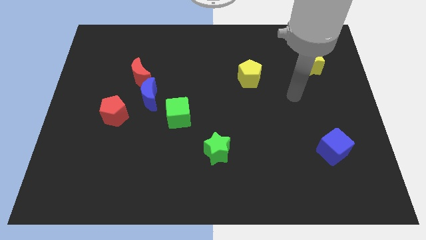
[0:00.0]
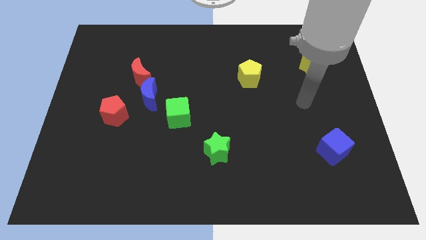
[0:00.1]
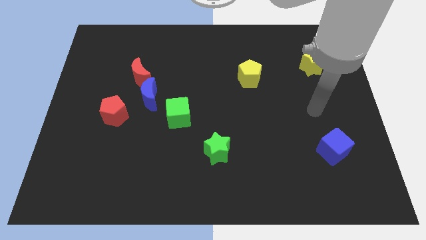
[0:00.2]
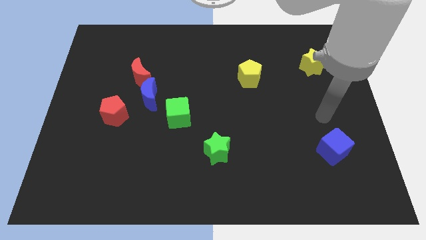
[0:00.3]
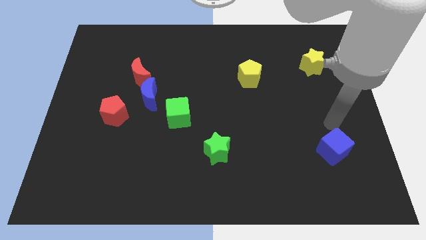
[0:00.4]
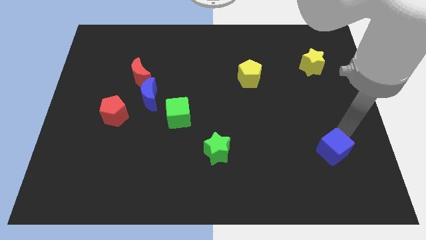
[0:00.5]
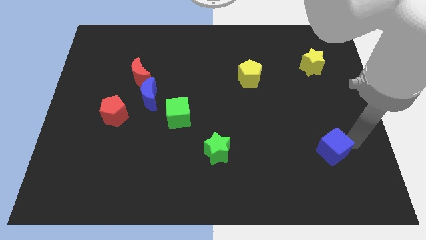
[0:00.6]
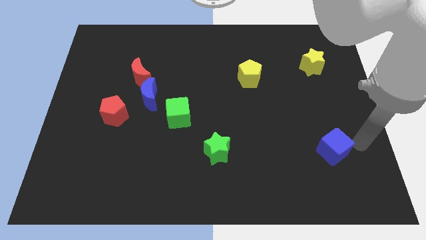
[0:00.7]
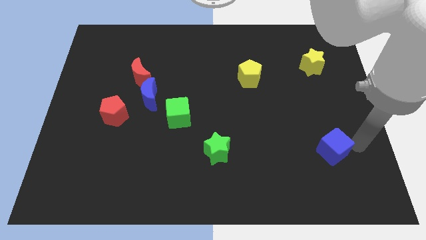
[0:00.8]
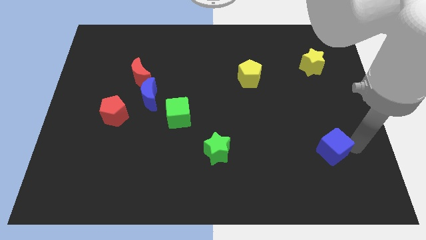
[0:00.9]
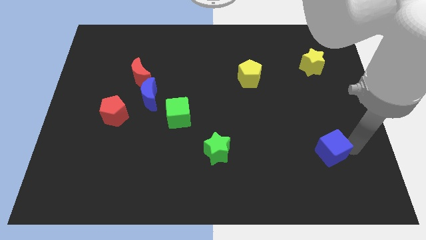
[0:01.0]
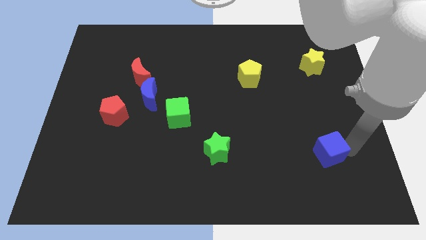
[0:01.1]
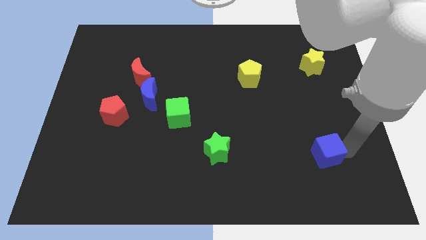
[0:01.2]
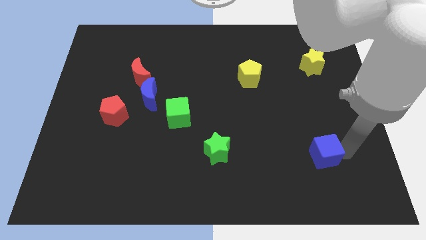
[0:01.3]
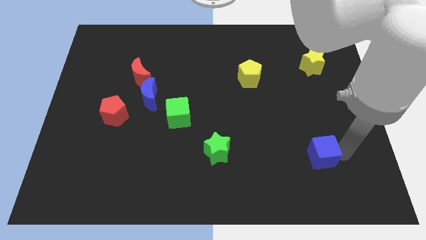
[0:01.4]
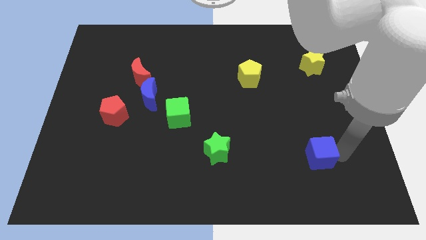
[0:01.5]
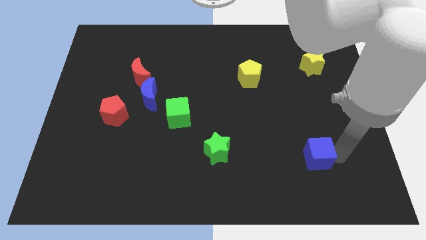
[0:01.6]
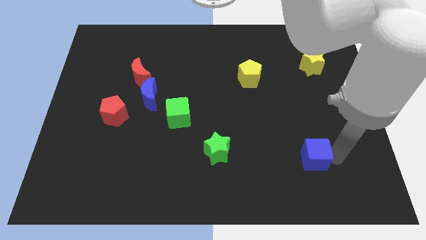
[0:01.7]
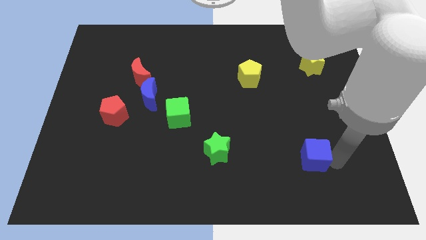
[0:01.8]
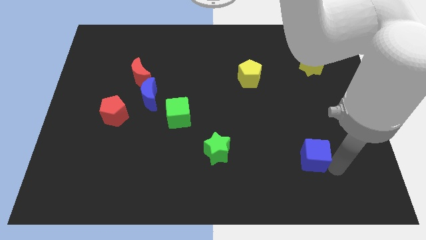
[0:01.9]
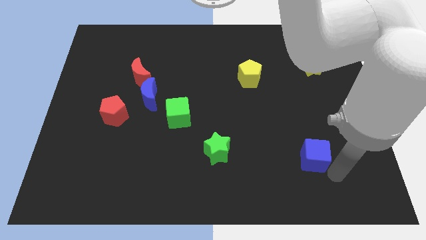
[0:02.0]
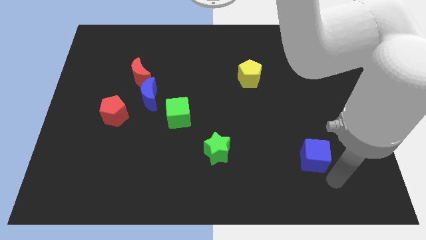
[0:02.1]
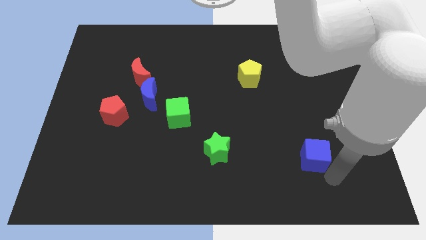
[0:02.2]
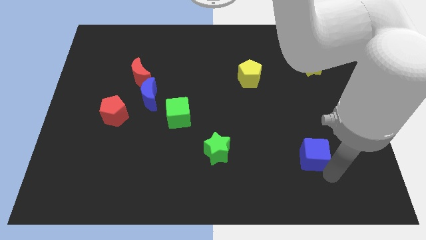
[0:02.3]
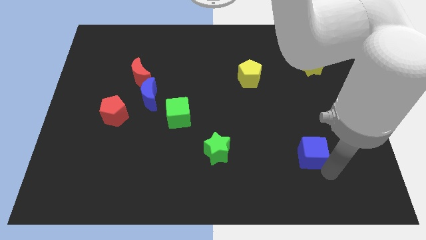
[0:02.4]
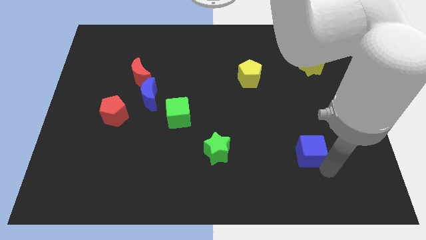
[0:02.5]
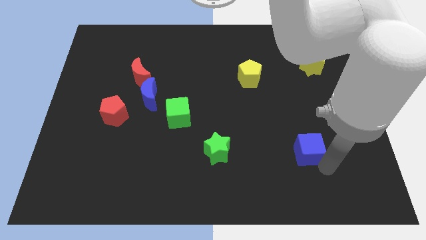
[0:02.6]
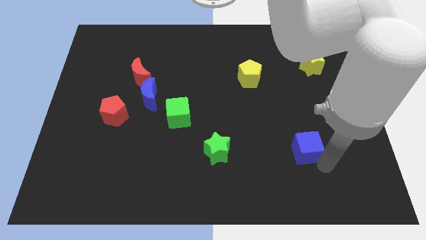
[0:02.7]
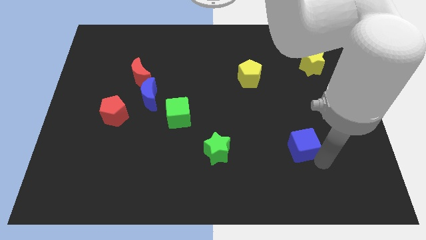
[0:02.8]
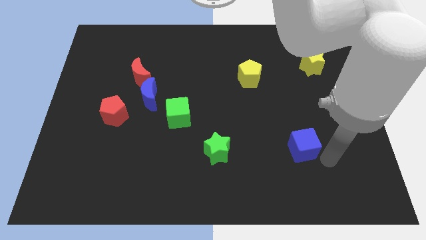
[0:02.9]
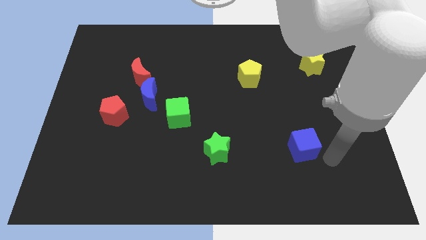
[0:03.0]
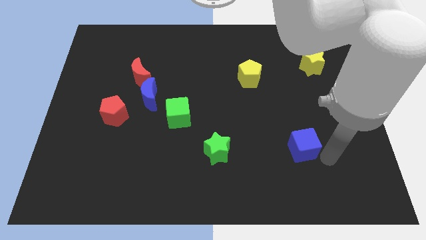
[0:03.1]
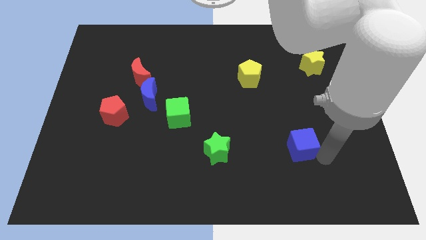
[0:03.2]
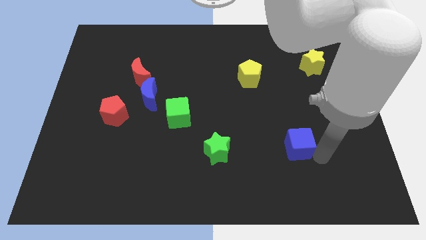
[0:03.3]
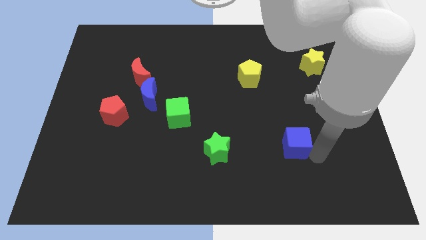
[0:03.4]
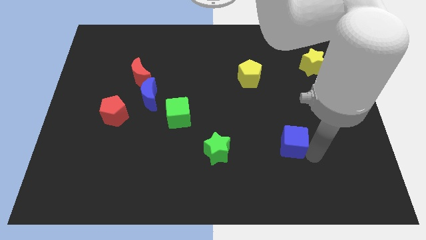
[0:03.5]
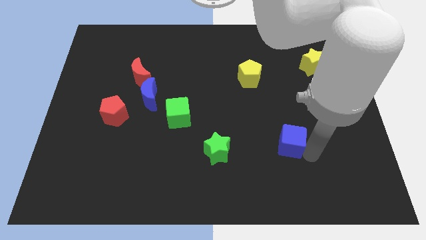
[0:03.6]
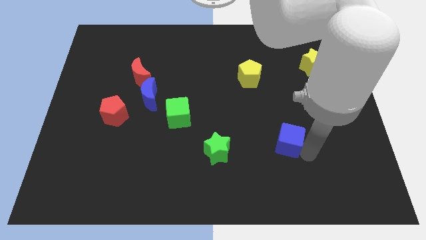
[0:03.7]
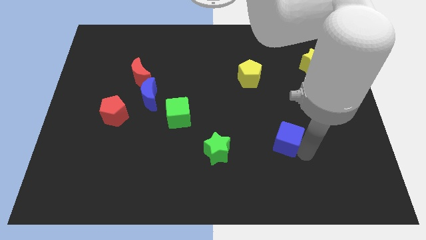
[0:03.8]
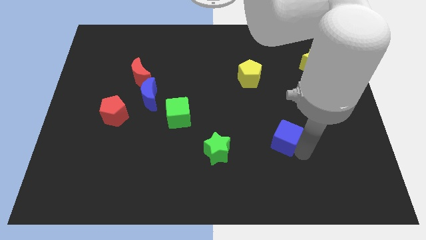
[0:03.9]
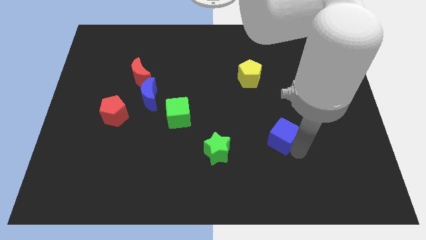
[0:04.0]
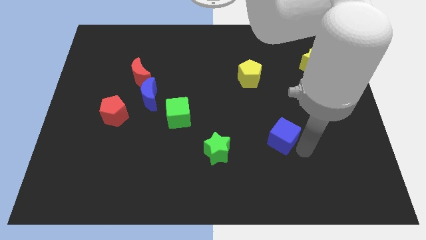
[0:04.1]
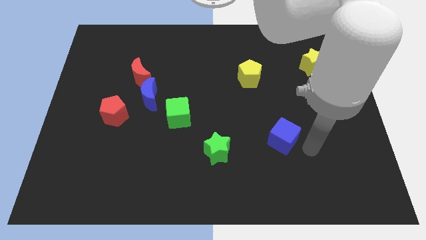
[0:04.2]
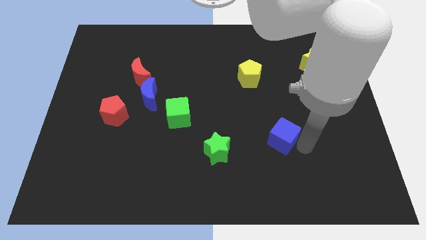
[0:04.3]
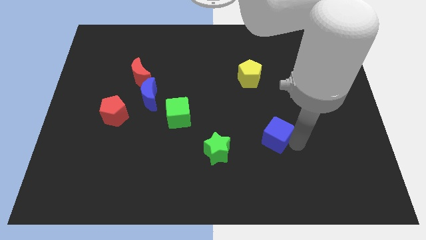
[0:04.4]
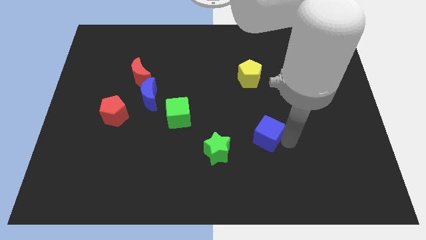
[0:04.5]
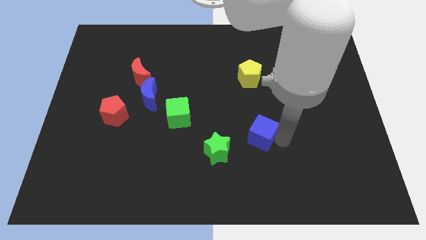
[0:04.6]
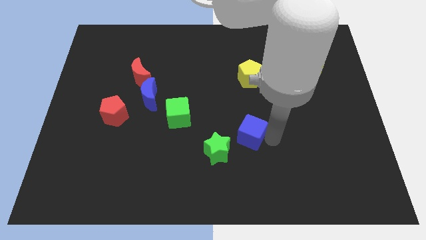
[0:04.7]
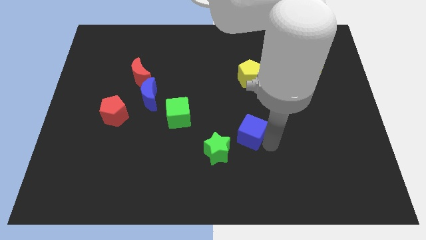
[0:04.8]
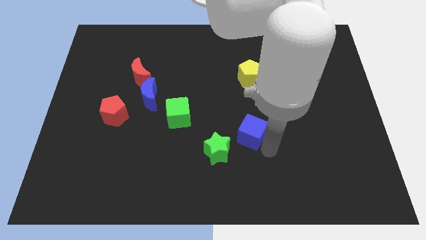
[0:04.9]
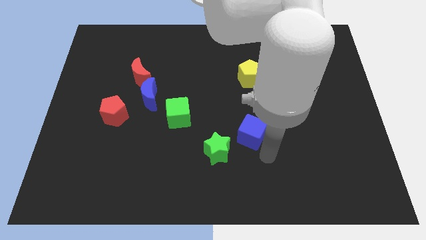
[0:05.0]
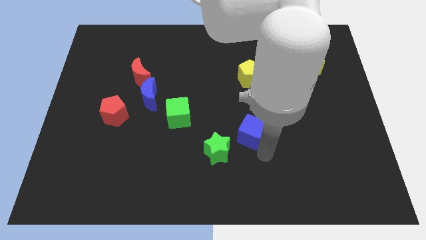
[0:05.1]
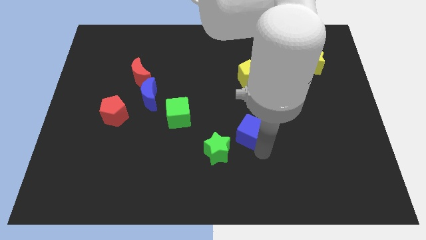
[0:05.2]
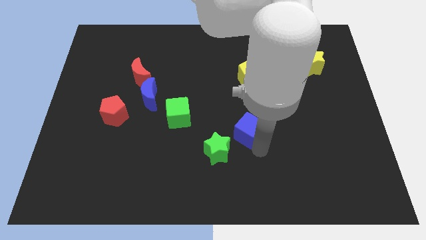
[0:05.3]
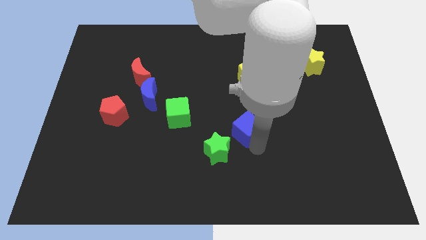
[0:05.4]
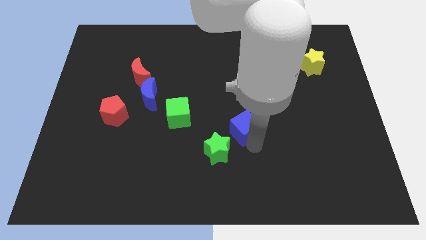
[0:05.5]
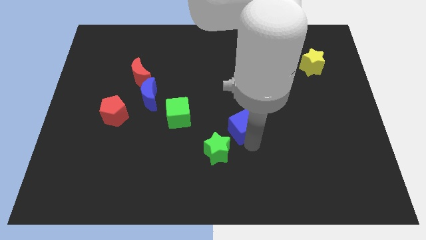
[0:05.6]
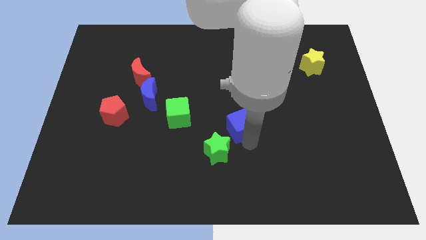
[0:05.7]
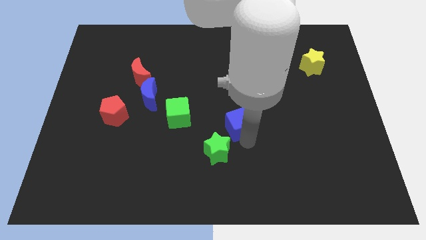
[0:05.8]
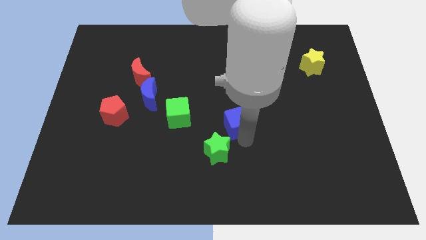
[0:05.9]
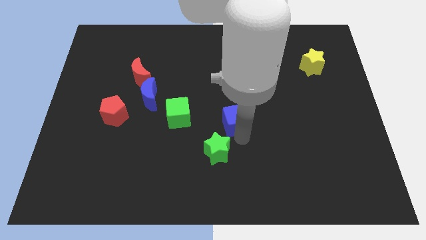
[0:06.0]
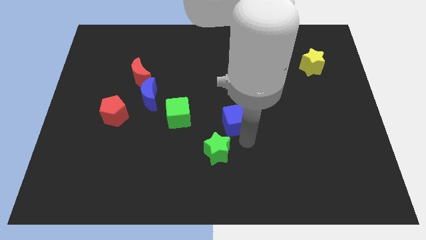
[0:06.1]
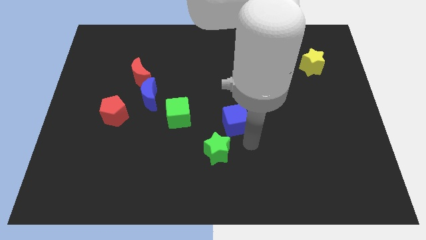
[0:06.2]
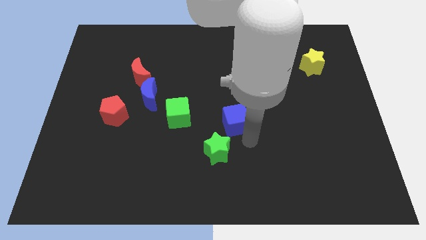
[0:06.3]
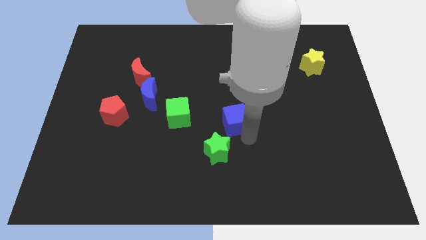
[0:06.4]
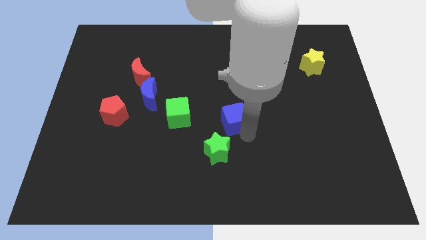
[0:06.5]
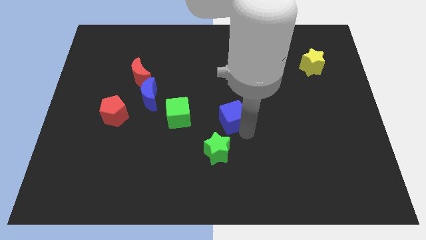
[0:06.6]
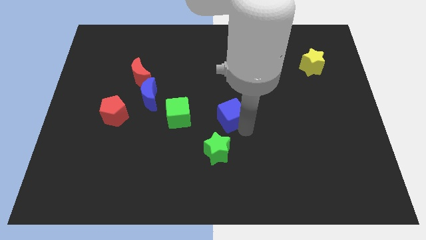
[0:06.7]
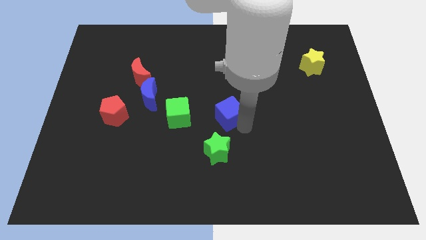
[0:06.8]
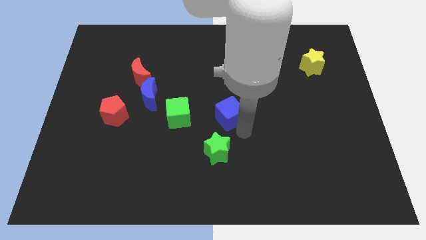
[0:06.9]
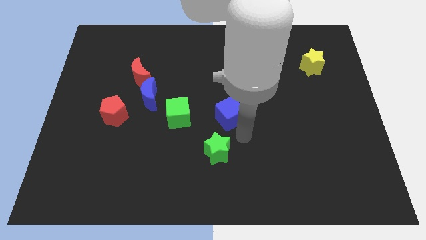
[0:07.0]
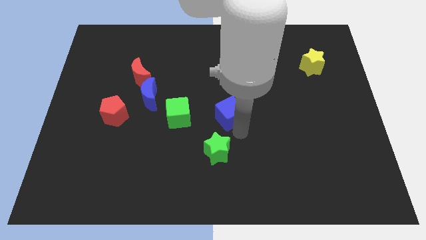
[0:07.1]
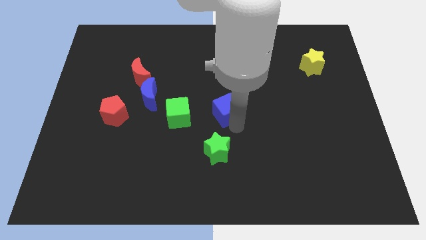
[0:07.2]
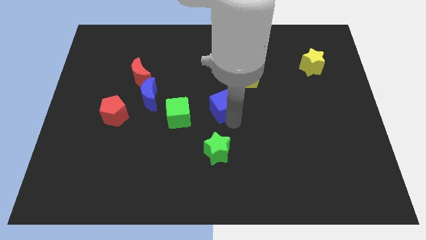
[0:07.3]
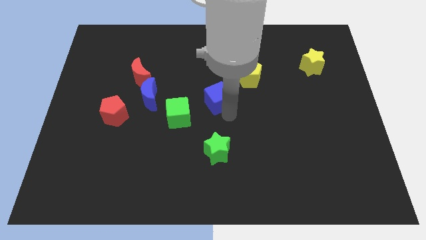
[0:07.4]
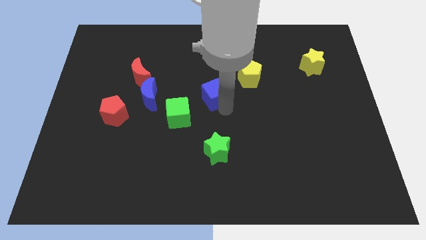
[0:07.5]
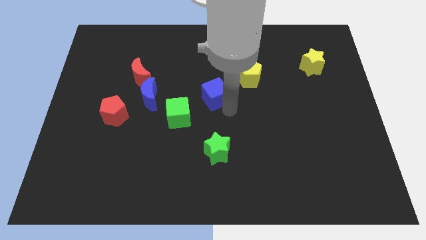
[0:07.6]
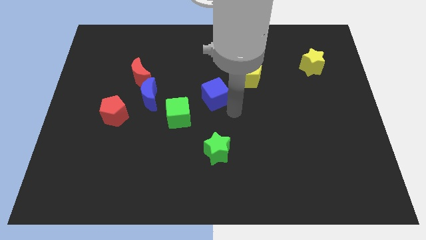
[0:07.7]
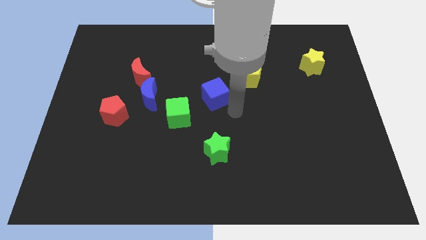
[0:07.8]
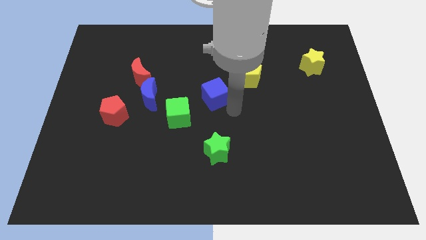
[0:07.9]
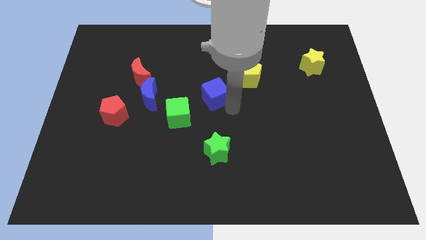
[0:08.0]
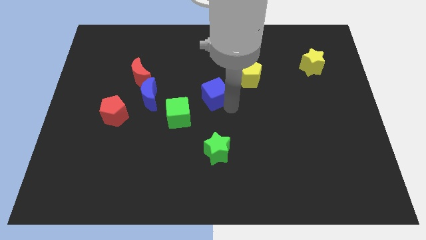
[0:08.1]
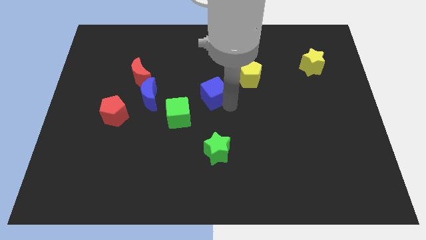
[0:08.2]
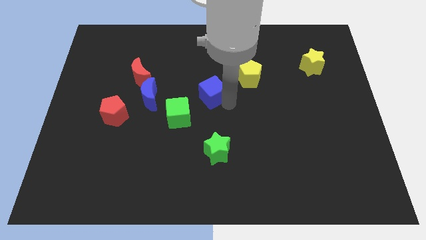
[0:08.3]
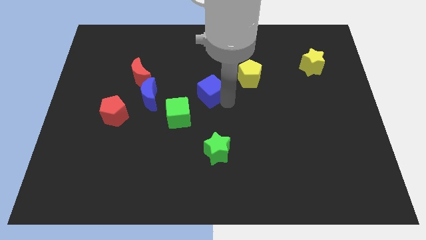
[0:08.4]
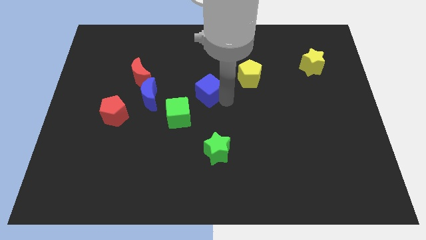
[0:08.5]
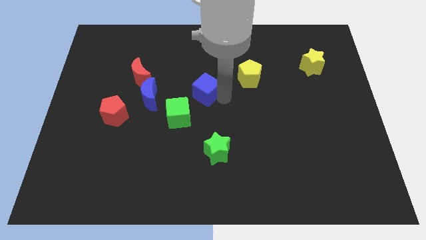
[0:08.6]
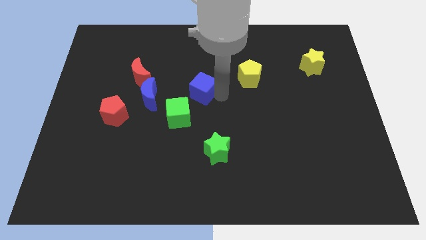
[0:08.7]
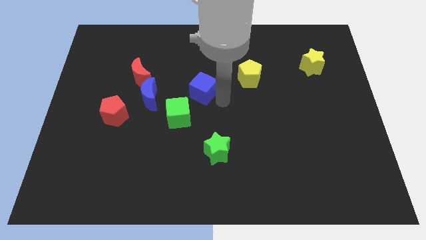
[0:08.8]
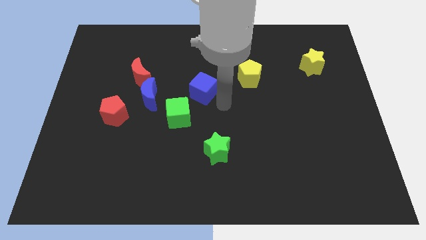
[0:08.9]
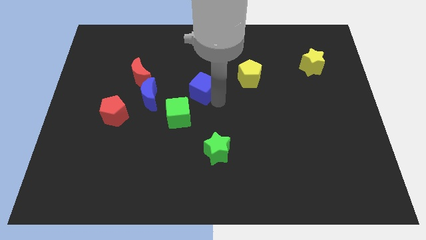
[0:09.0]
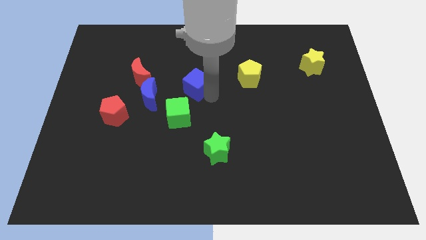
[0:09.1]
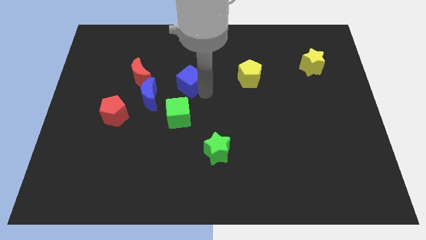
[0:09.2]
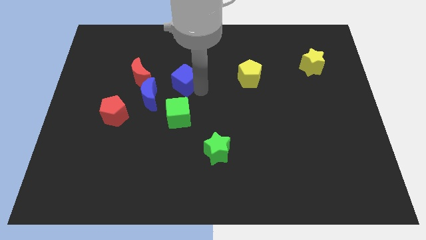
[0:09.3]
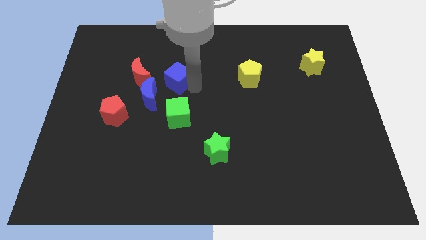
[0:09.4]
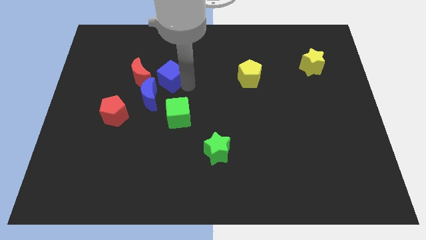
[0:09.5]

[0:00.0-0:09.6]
slide the blue cube to the top of the blue moon
